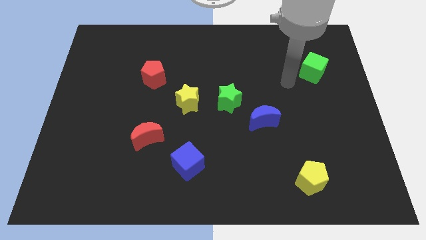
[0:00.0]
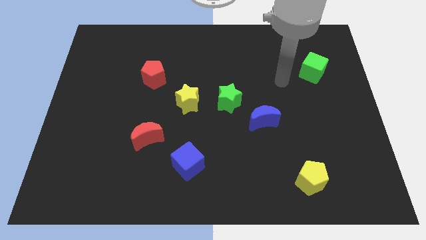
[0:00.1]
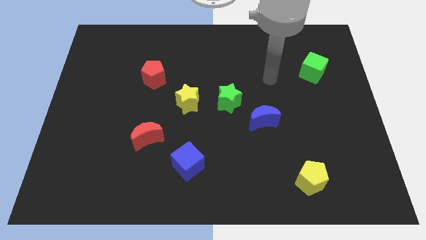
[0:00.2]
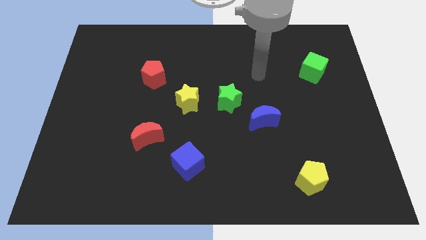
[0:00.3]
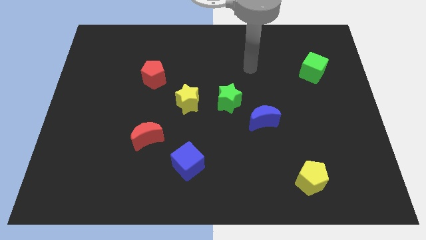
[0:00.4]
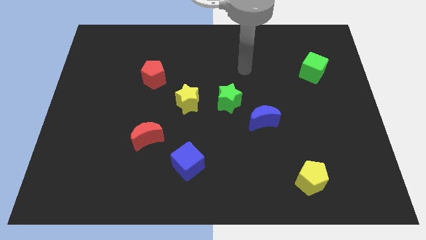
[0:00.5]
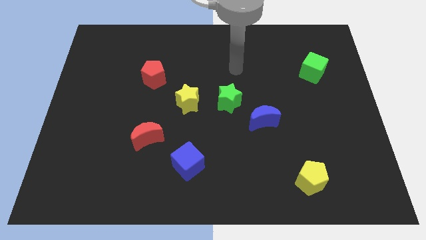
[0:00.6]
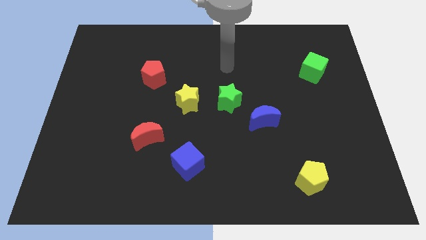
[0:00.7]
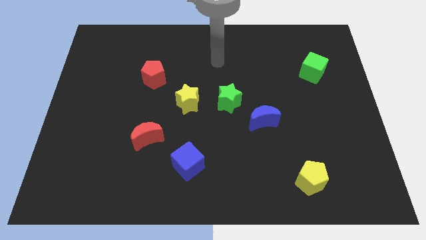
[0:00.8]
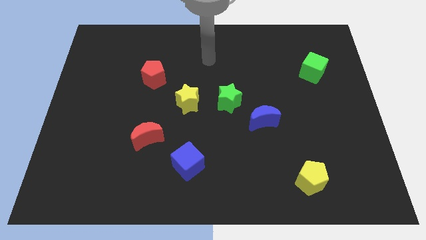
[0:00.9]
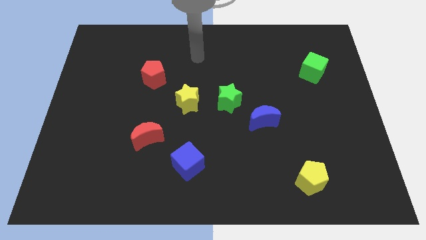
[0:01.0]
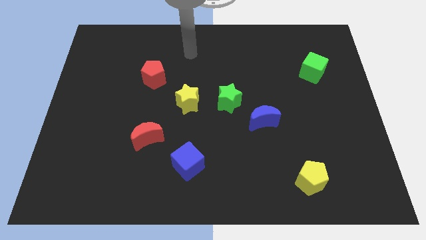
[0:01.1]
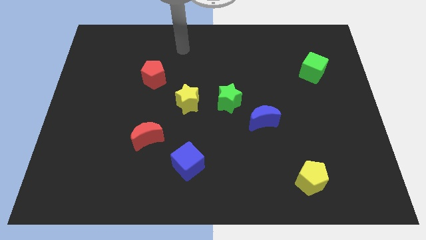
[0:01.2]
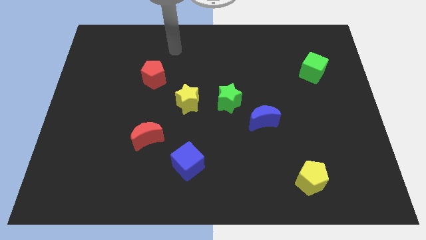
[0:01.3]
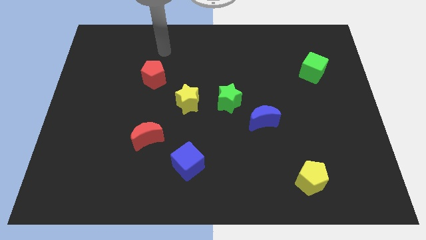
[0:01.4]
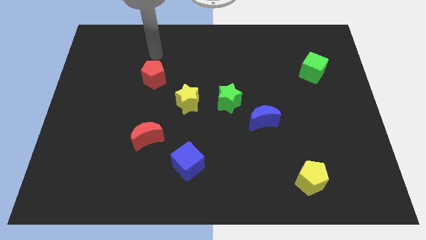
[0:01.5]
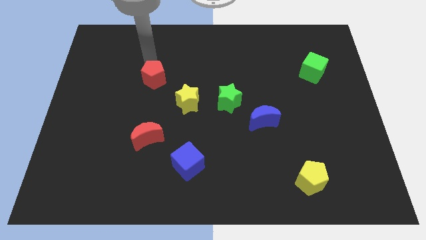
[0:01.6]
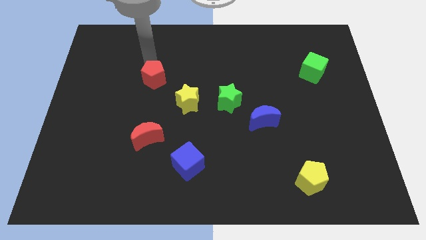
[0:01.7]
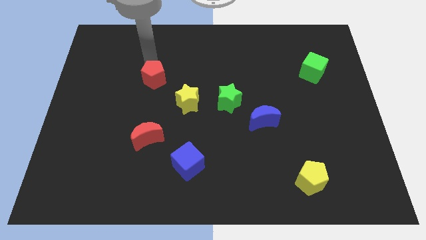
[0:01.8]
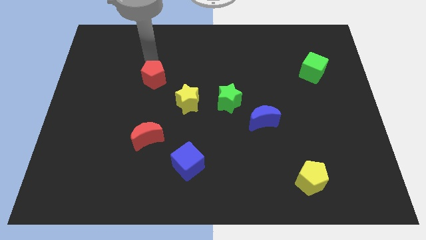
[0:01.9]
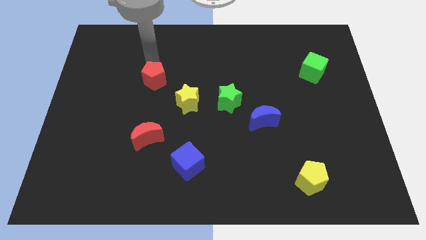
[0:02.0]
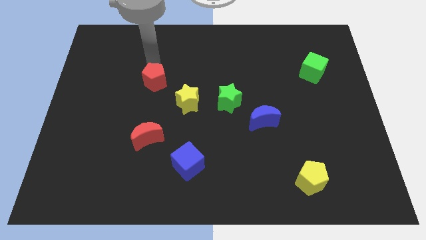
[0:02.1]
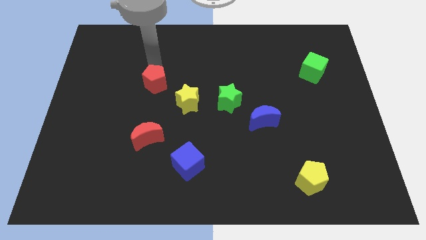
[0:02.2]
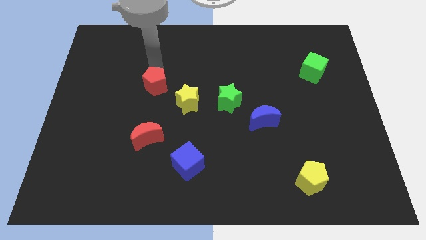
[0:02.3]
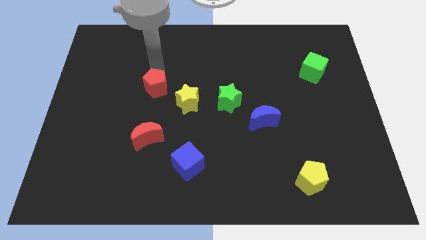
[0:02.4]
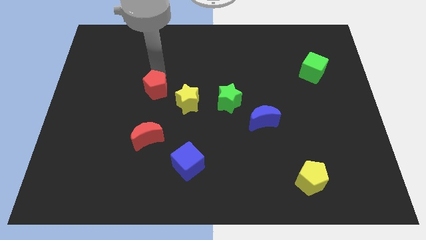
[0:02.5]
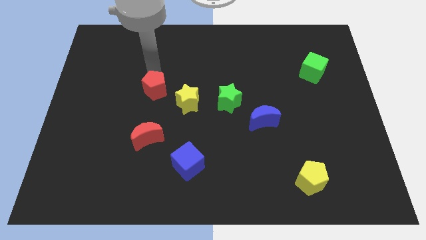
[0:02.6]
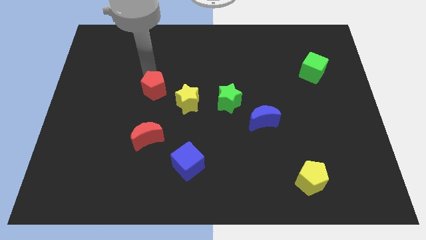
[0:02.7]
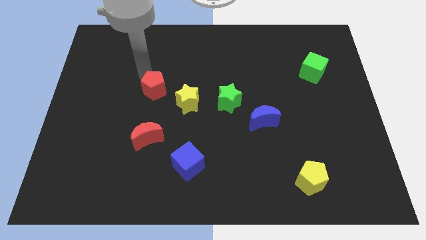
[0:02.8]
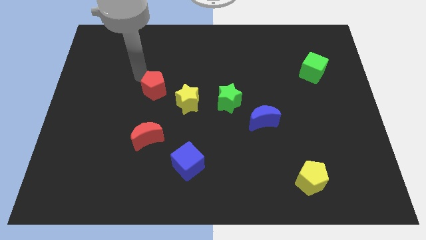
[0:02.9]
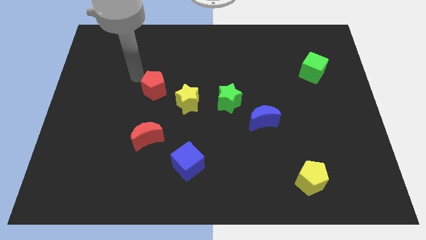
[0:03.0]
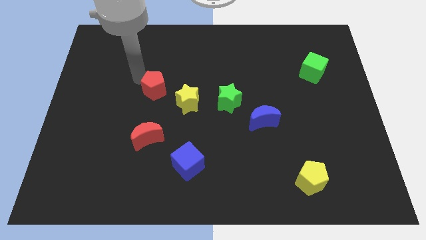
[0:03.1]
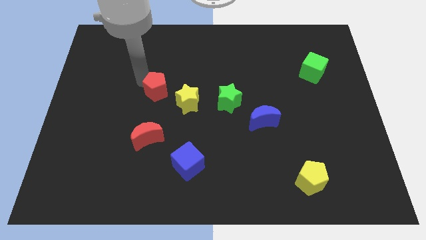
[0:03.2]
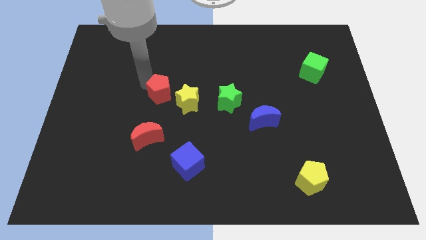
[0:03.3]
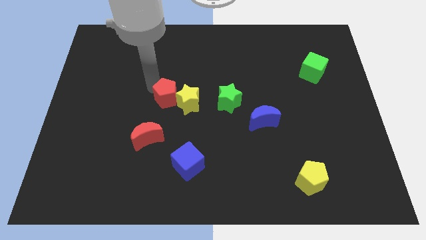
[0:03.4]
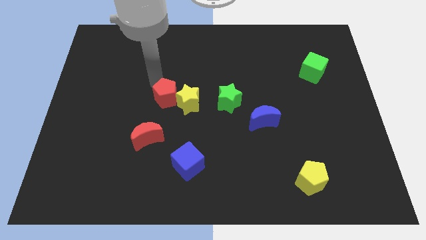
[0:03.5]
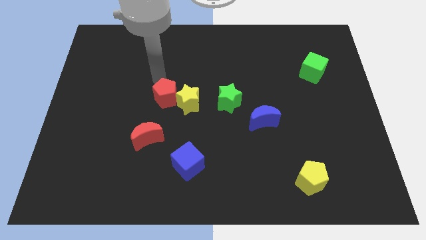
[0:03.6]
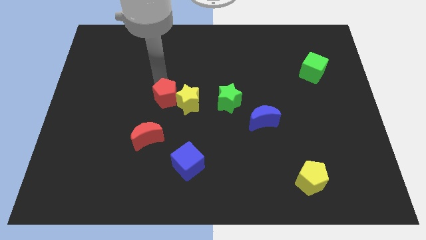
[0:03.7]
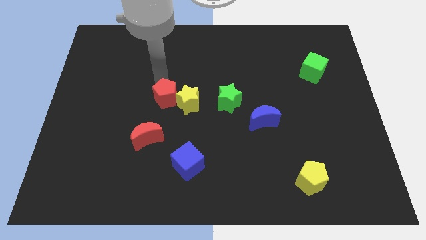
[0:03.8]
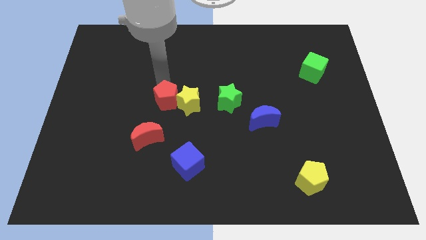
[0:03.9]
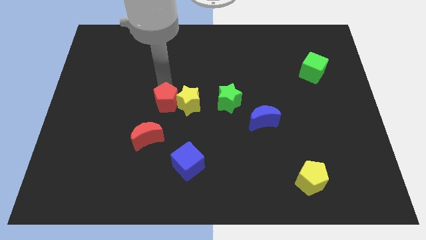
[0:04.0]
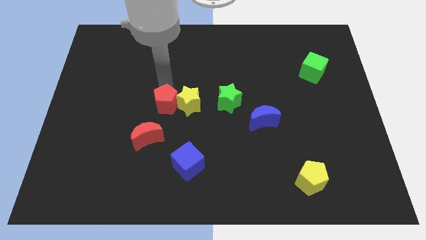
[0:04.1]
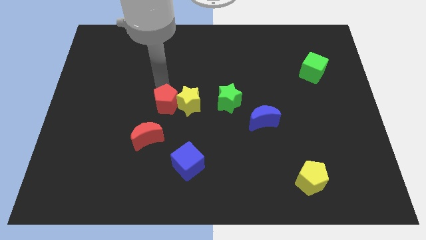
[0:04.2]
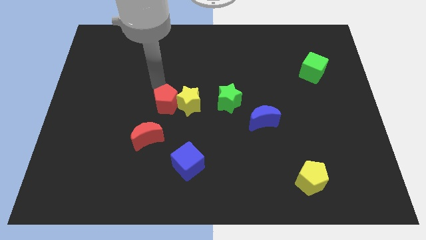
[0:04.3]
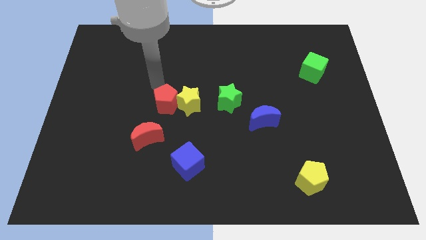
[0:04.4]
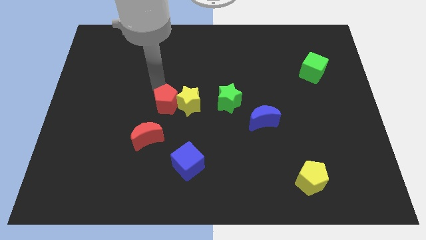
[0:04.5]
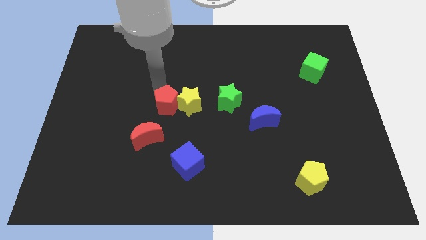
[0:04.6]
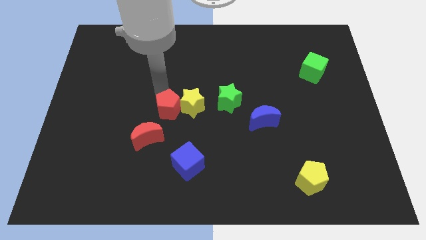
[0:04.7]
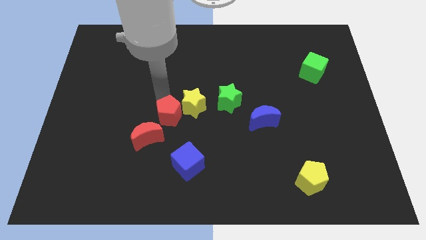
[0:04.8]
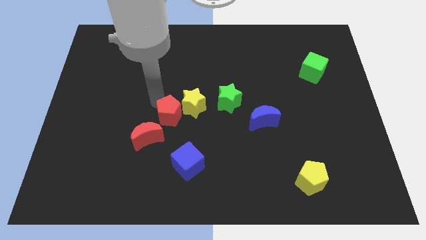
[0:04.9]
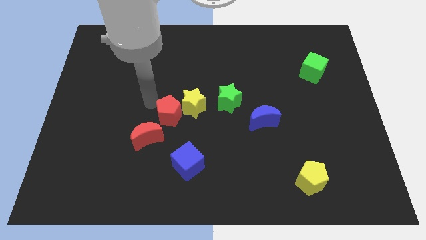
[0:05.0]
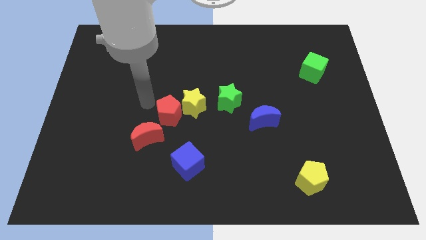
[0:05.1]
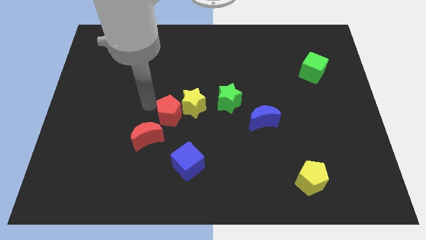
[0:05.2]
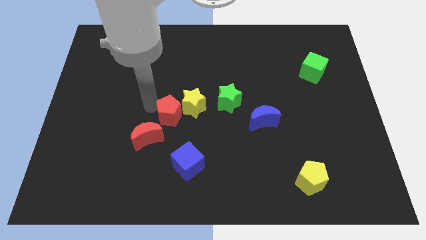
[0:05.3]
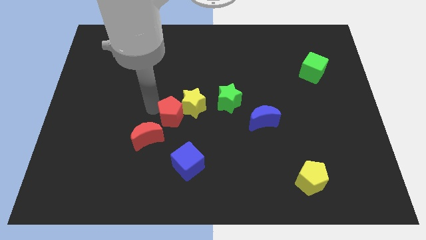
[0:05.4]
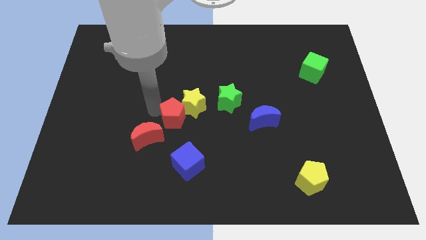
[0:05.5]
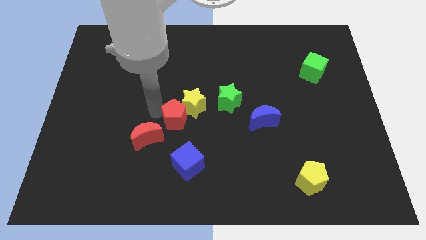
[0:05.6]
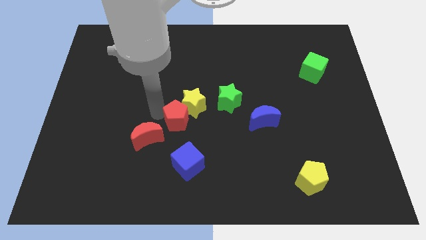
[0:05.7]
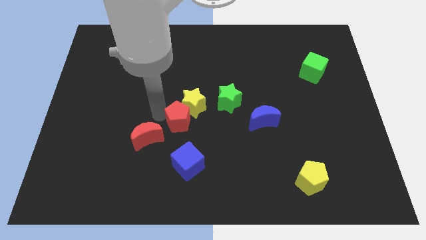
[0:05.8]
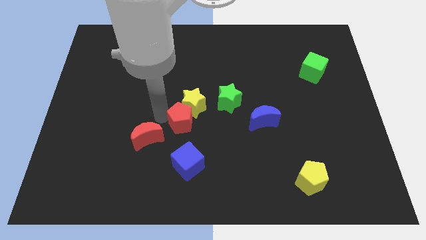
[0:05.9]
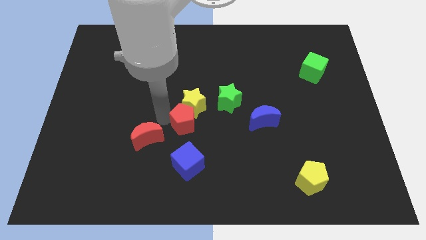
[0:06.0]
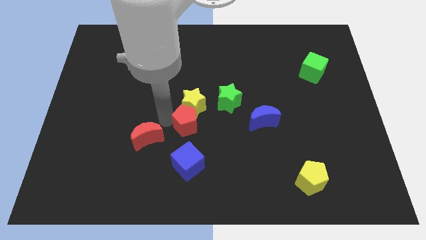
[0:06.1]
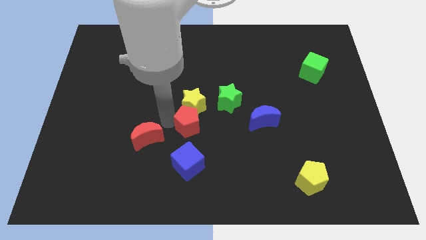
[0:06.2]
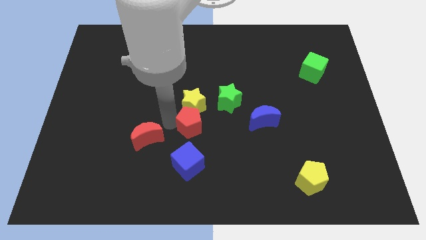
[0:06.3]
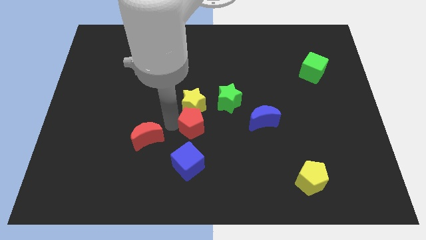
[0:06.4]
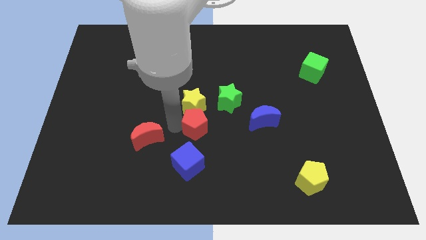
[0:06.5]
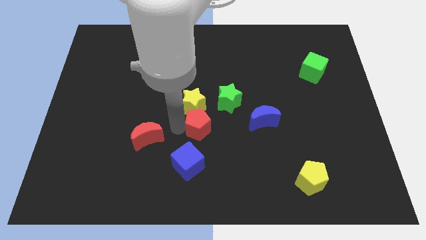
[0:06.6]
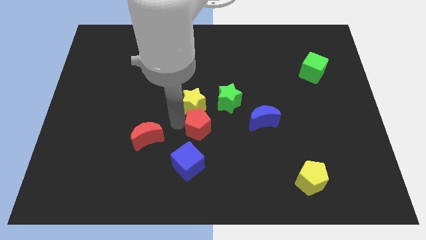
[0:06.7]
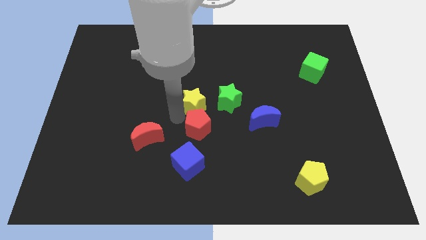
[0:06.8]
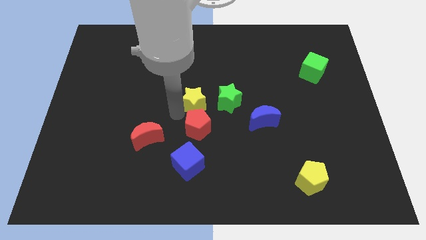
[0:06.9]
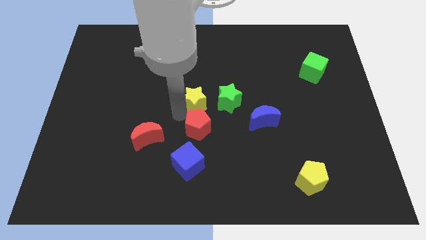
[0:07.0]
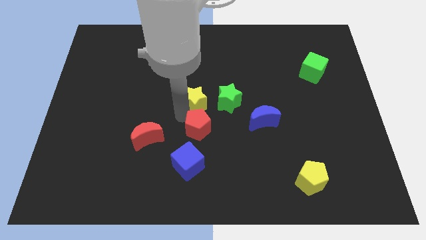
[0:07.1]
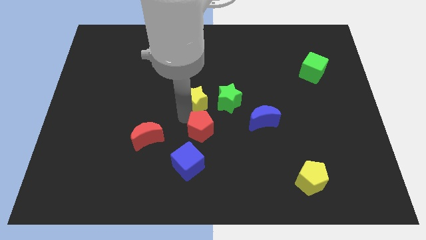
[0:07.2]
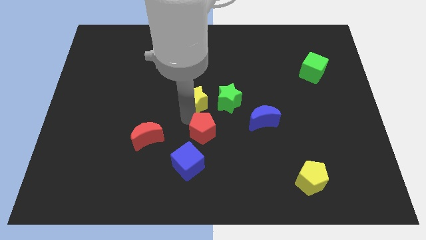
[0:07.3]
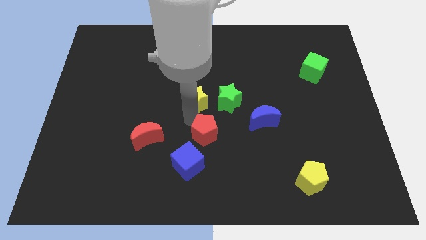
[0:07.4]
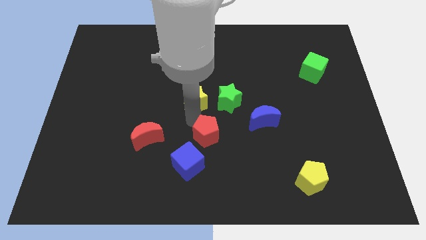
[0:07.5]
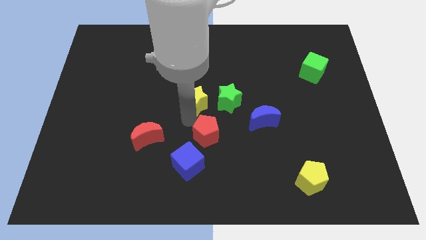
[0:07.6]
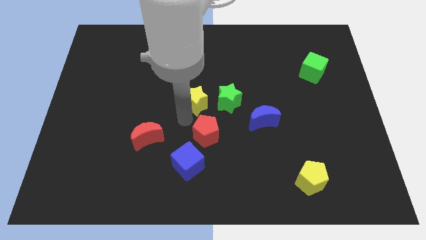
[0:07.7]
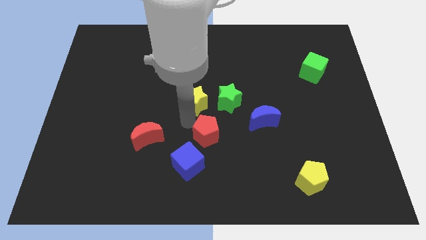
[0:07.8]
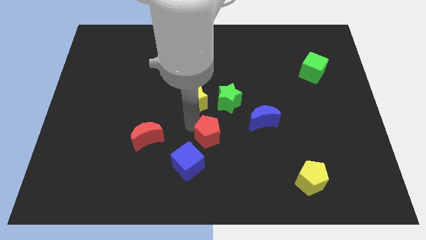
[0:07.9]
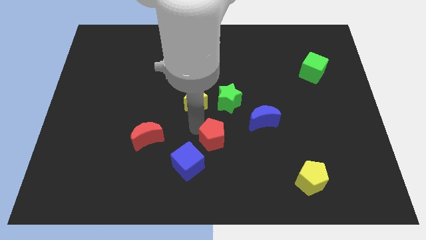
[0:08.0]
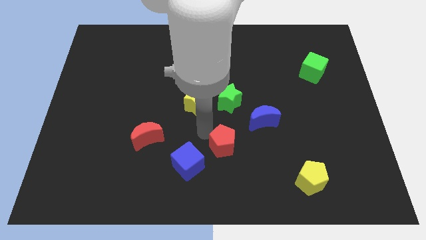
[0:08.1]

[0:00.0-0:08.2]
put the red pentagon just right of the blue cube
